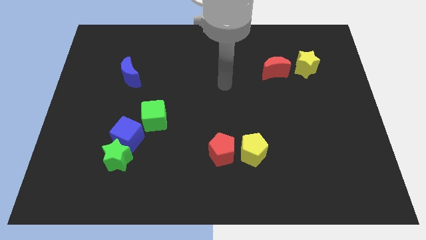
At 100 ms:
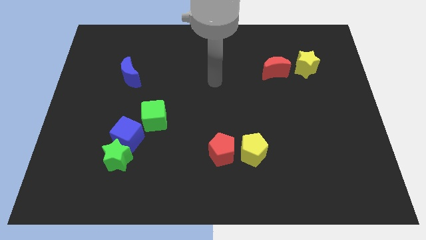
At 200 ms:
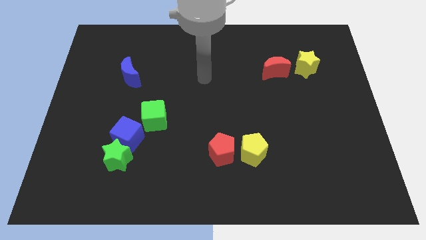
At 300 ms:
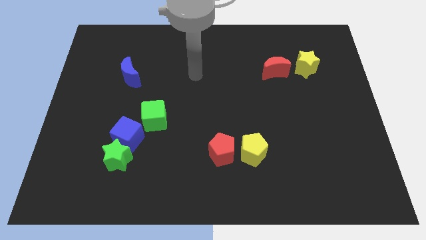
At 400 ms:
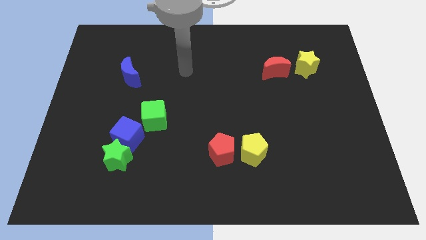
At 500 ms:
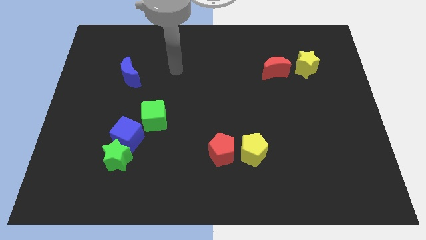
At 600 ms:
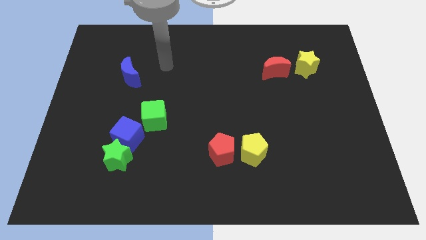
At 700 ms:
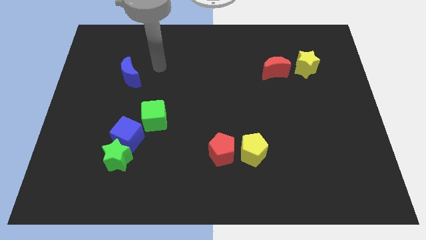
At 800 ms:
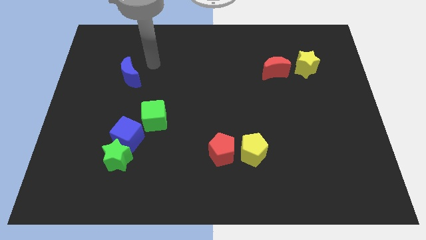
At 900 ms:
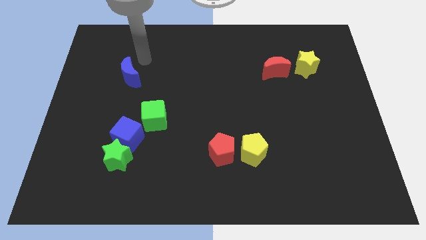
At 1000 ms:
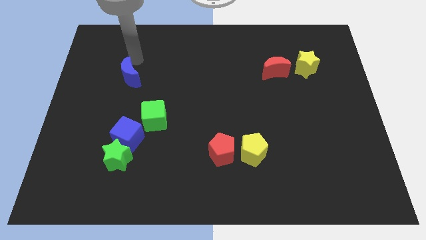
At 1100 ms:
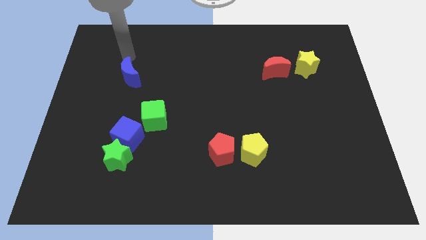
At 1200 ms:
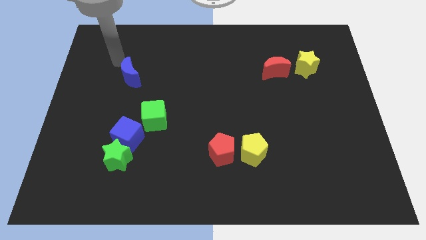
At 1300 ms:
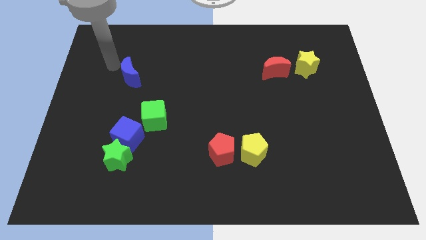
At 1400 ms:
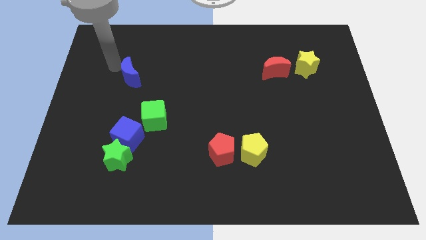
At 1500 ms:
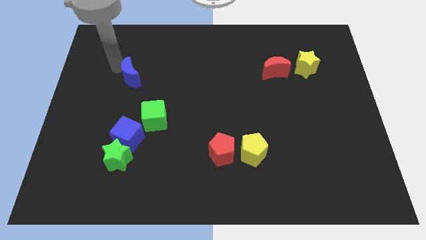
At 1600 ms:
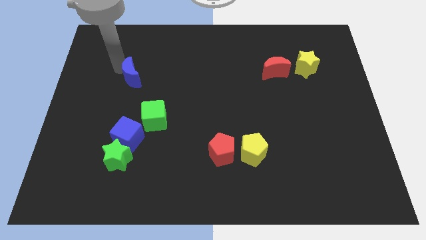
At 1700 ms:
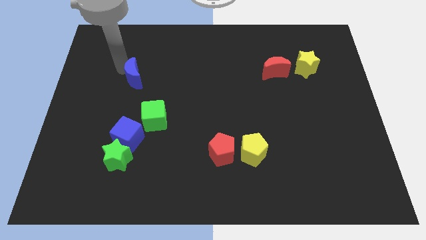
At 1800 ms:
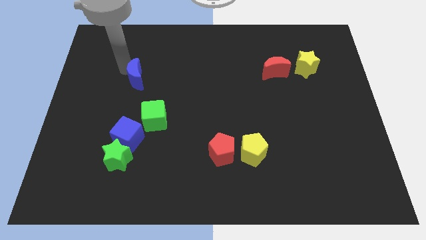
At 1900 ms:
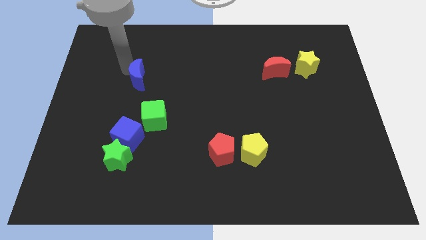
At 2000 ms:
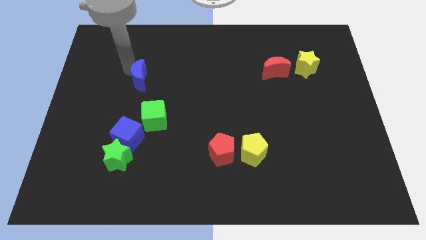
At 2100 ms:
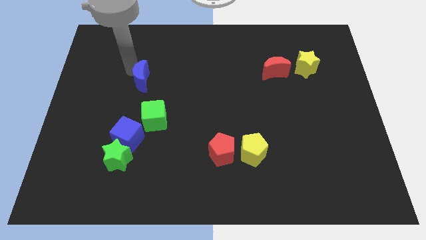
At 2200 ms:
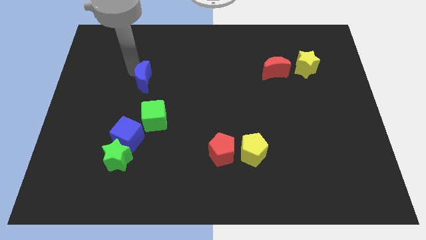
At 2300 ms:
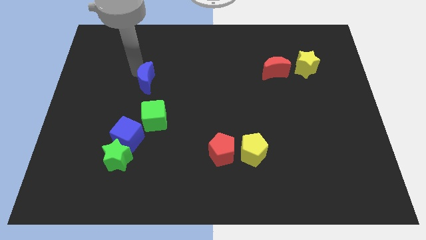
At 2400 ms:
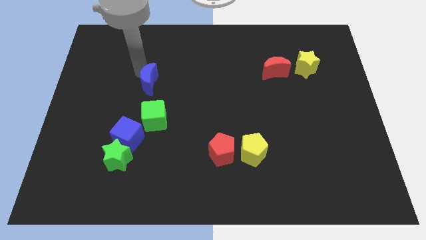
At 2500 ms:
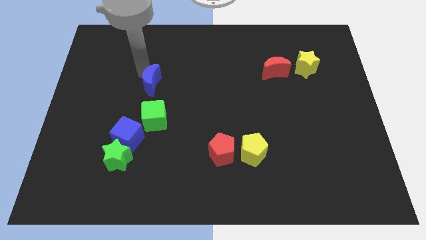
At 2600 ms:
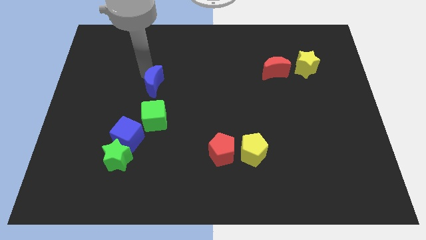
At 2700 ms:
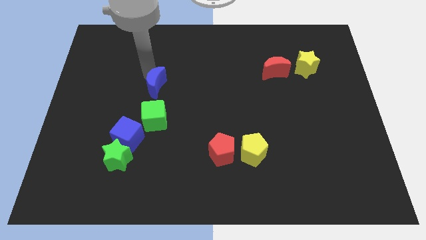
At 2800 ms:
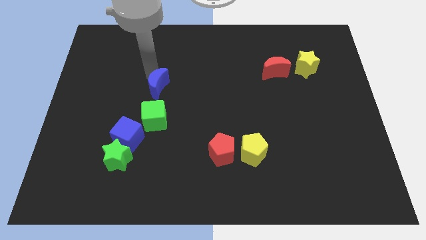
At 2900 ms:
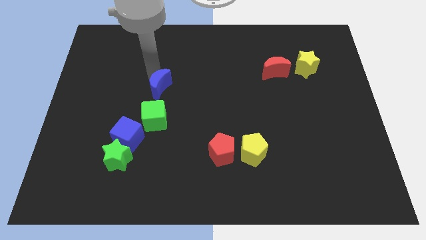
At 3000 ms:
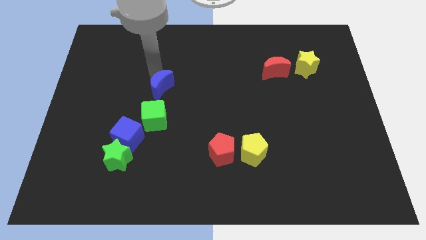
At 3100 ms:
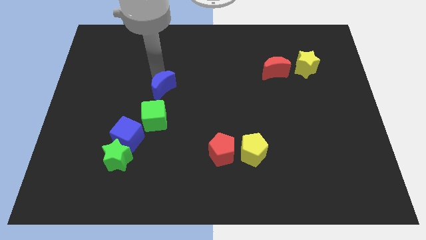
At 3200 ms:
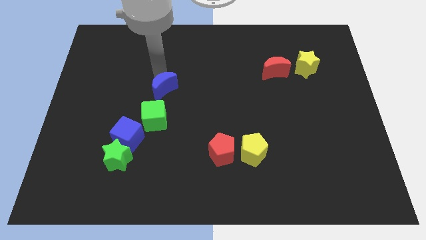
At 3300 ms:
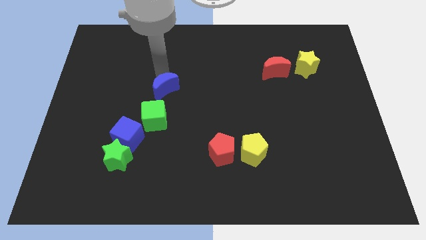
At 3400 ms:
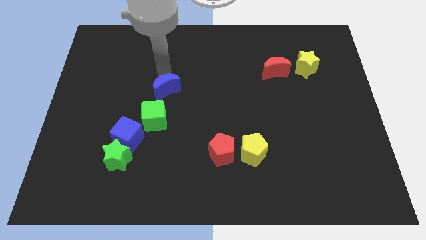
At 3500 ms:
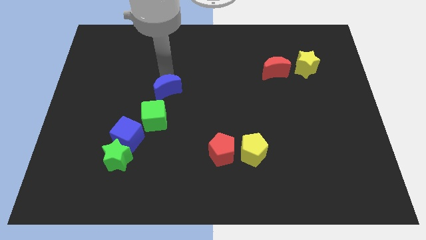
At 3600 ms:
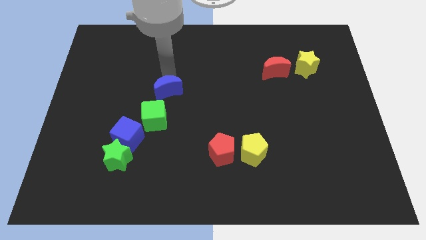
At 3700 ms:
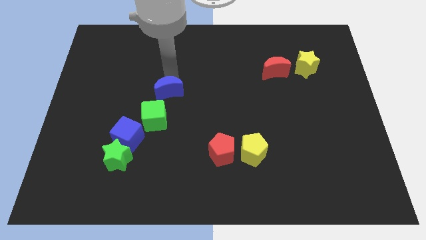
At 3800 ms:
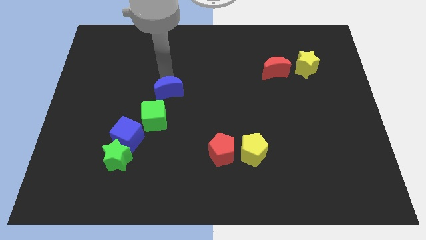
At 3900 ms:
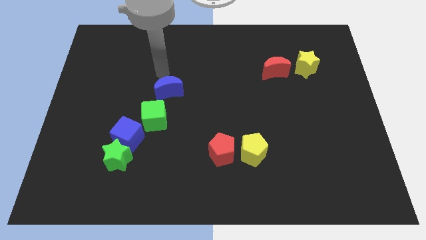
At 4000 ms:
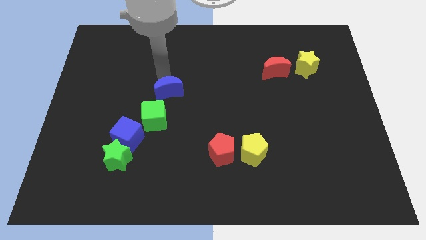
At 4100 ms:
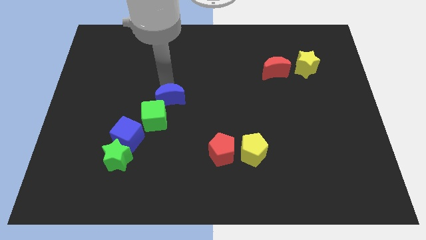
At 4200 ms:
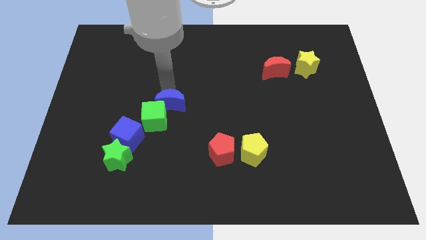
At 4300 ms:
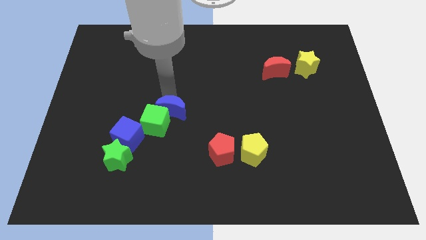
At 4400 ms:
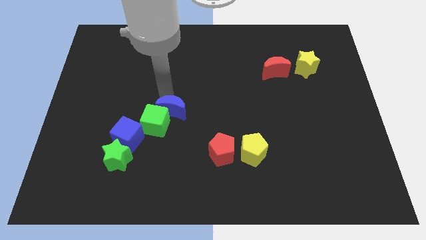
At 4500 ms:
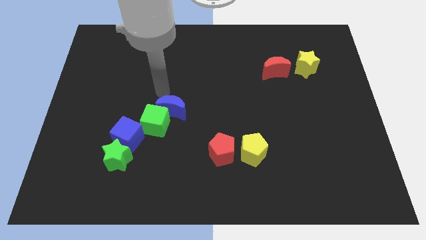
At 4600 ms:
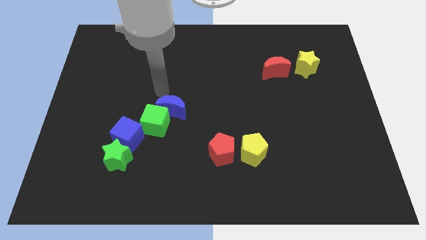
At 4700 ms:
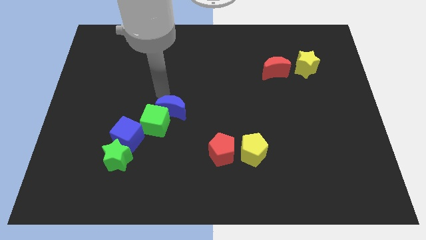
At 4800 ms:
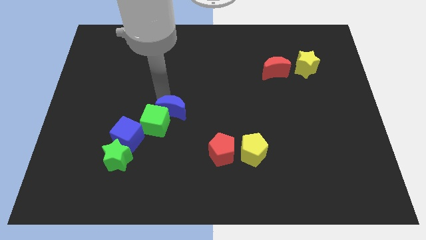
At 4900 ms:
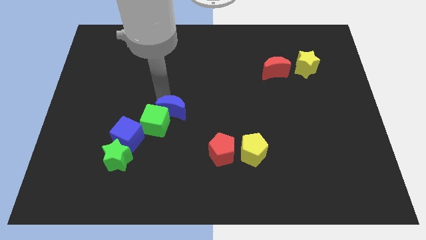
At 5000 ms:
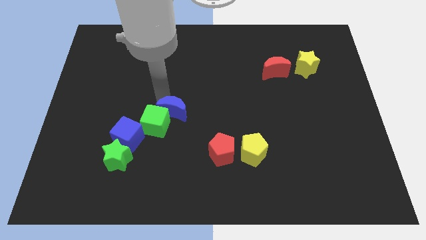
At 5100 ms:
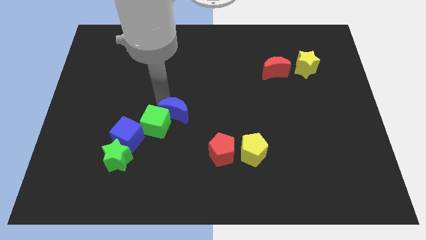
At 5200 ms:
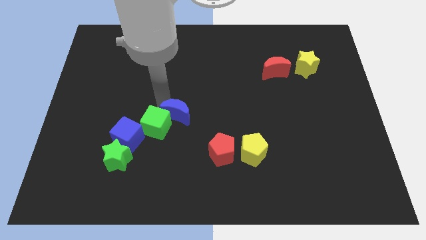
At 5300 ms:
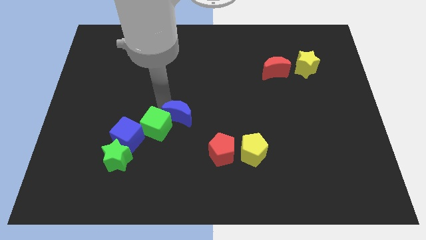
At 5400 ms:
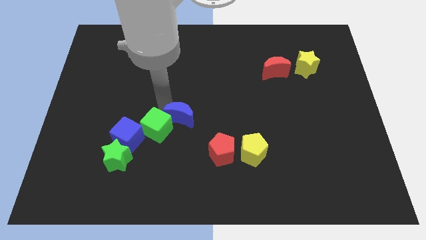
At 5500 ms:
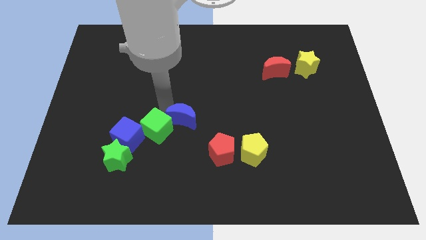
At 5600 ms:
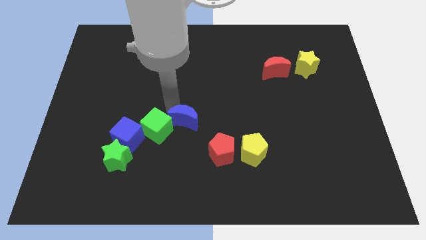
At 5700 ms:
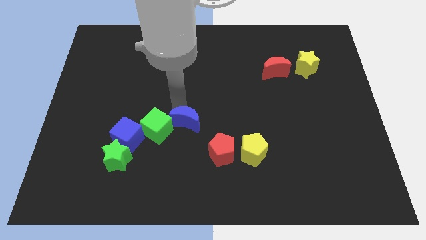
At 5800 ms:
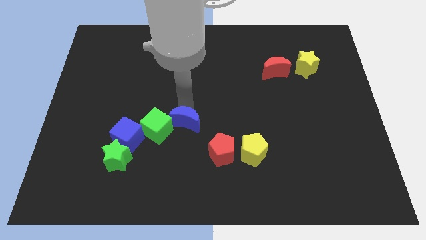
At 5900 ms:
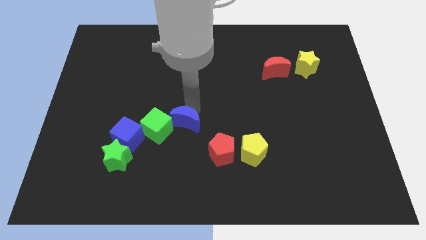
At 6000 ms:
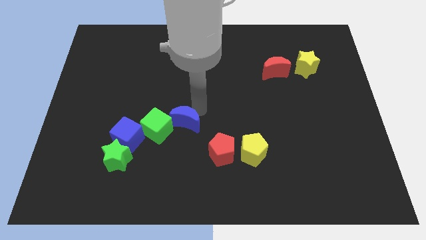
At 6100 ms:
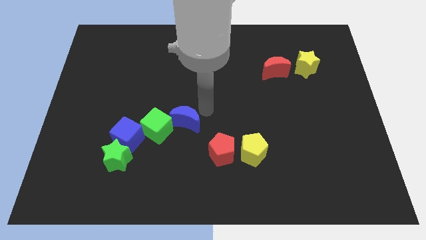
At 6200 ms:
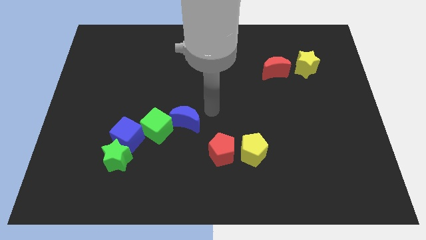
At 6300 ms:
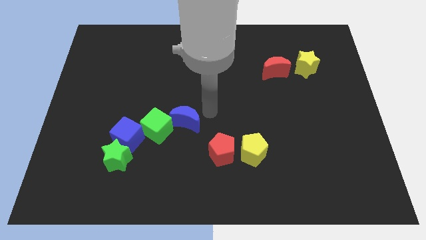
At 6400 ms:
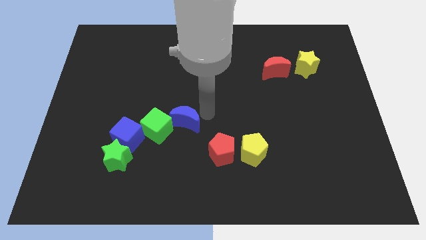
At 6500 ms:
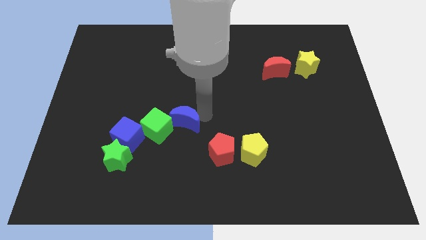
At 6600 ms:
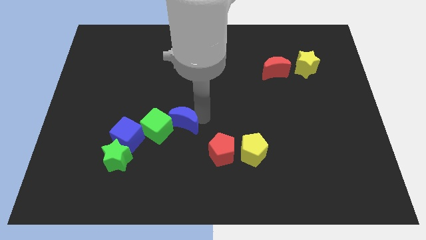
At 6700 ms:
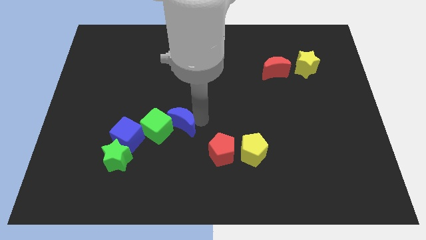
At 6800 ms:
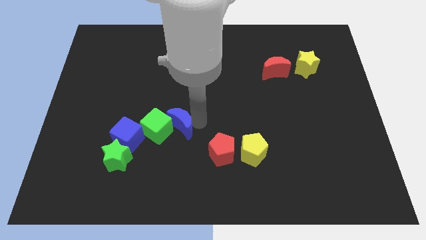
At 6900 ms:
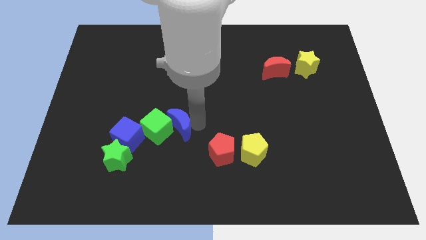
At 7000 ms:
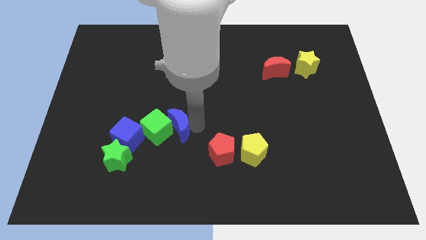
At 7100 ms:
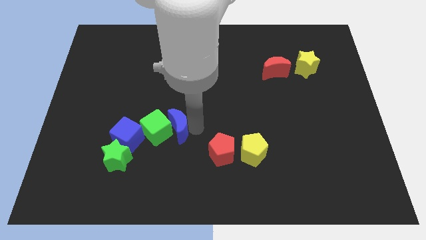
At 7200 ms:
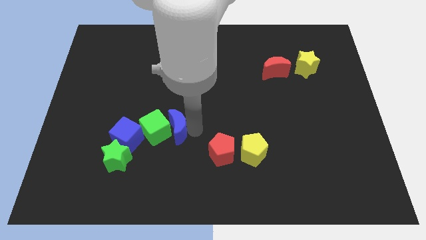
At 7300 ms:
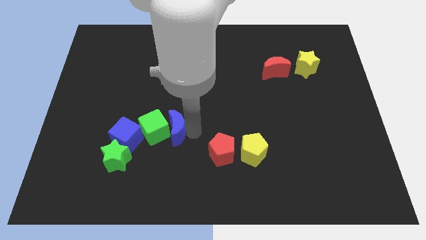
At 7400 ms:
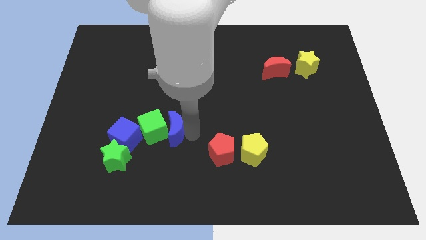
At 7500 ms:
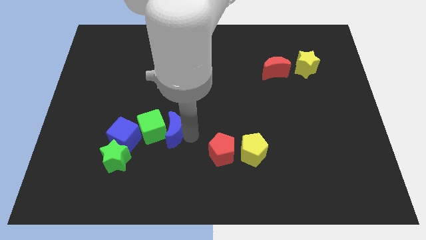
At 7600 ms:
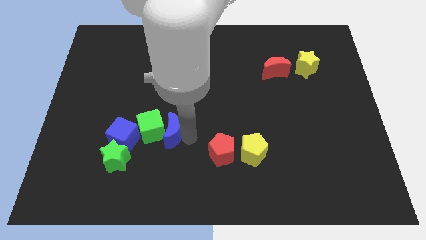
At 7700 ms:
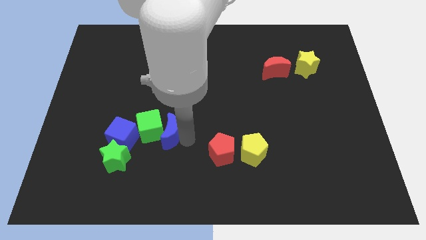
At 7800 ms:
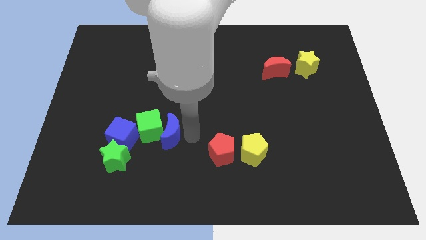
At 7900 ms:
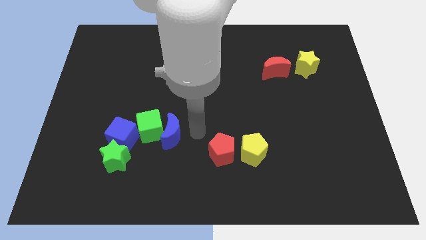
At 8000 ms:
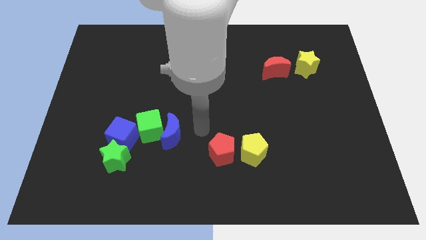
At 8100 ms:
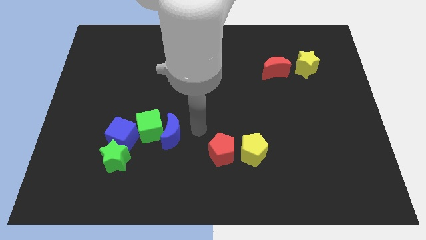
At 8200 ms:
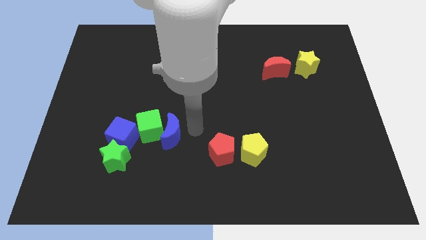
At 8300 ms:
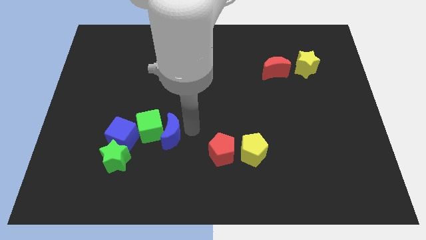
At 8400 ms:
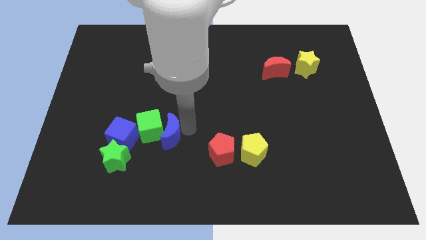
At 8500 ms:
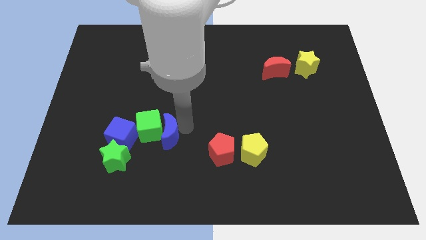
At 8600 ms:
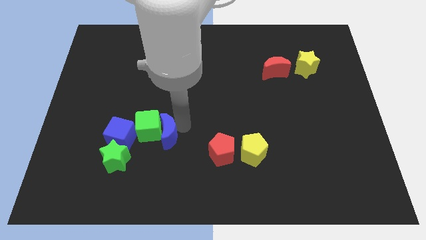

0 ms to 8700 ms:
slide the blue moon to the top right side of the green star
